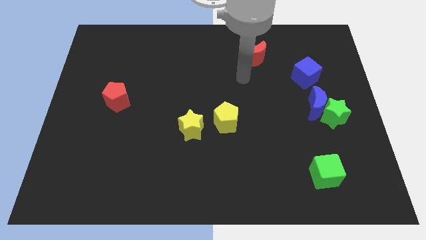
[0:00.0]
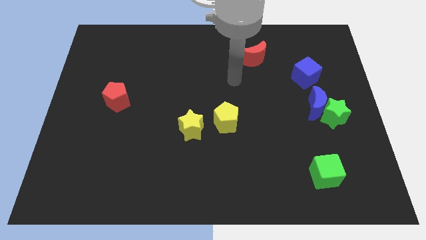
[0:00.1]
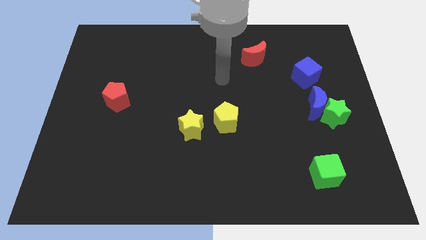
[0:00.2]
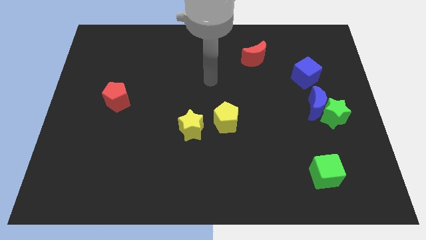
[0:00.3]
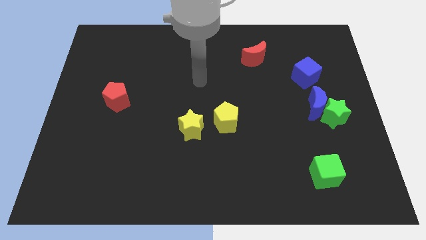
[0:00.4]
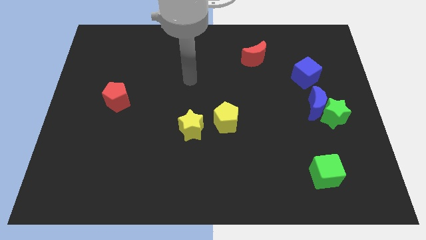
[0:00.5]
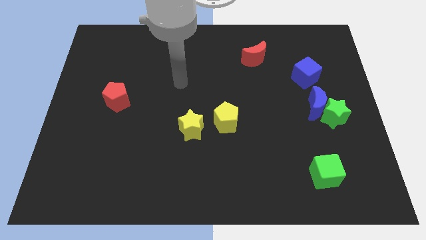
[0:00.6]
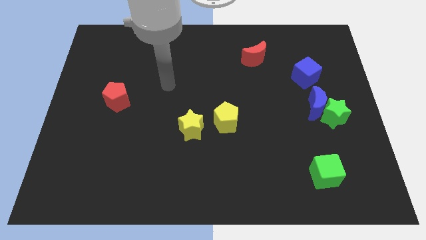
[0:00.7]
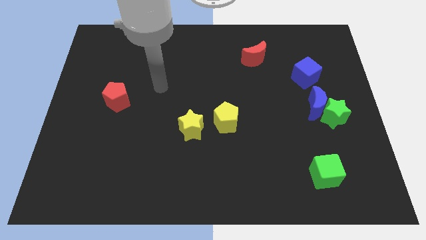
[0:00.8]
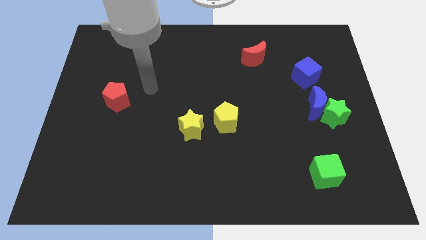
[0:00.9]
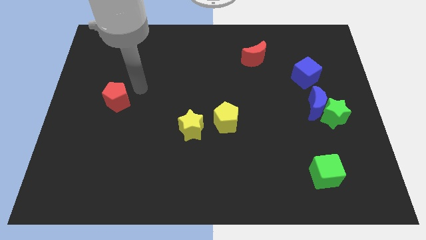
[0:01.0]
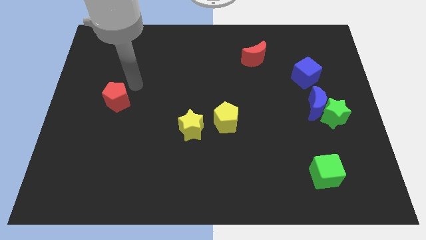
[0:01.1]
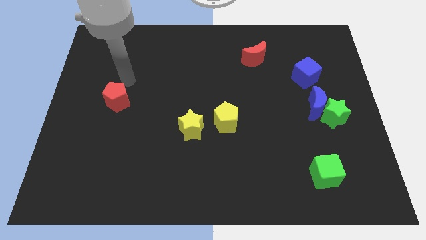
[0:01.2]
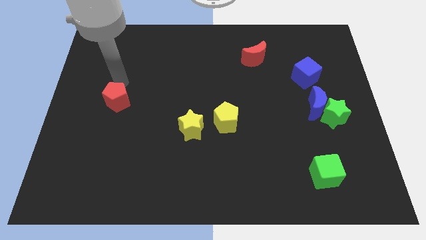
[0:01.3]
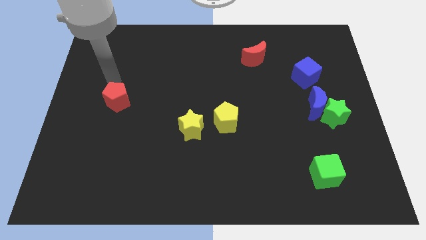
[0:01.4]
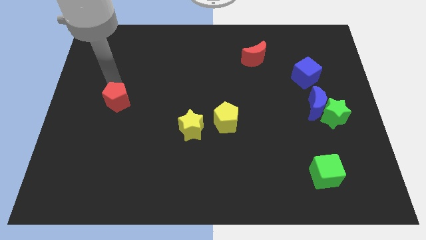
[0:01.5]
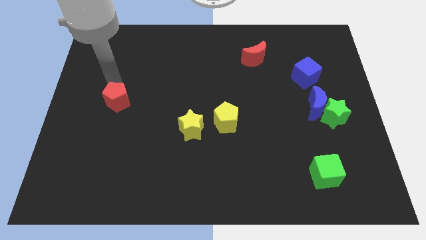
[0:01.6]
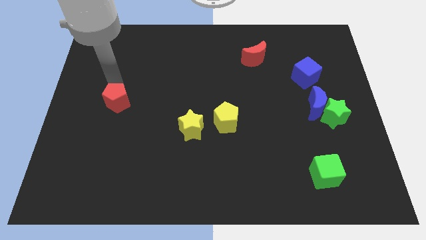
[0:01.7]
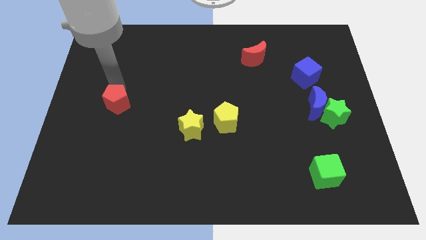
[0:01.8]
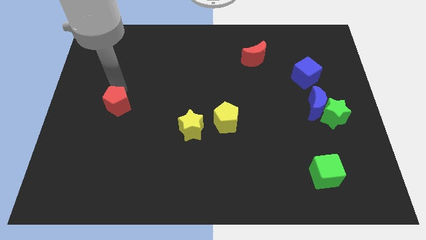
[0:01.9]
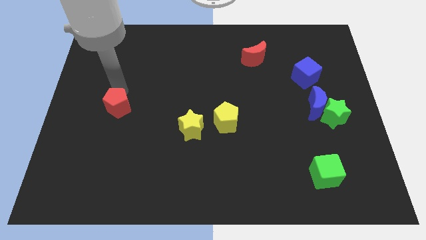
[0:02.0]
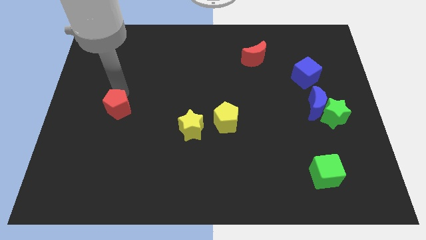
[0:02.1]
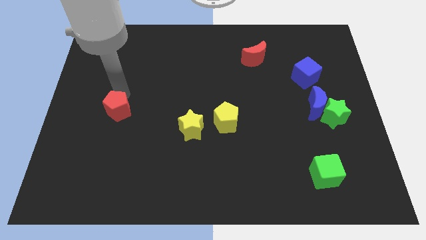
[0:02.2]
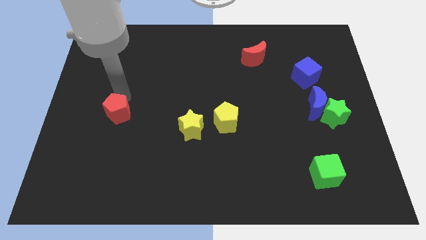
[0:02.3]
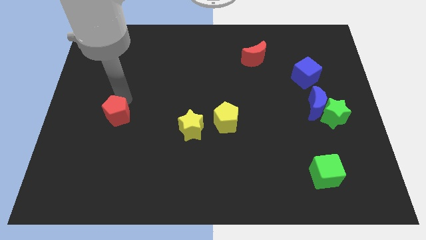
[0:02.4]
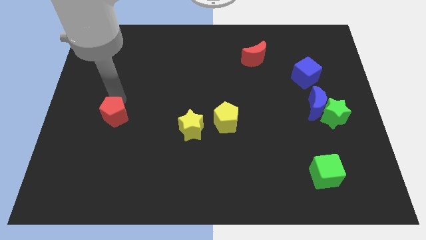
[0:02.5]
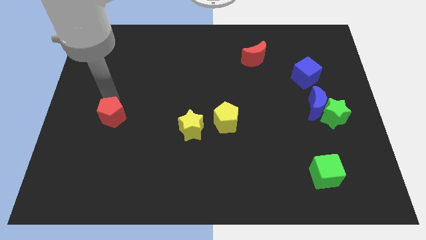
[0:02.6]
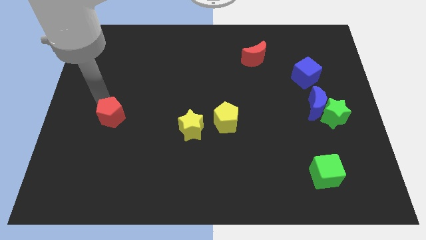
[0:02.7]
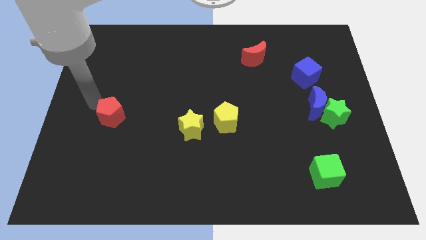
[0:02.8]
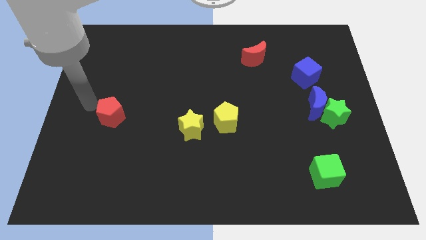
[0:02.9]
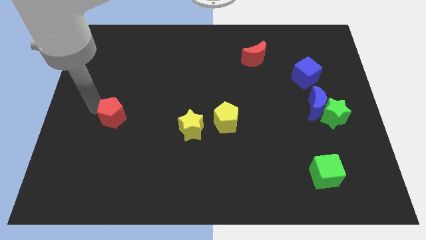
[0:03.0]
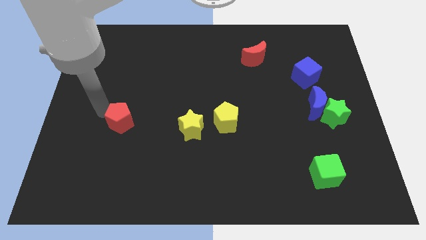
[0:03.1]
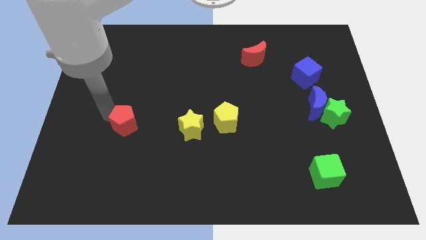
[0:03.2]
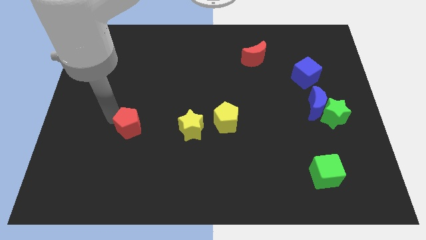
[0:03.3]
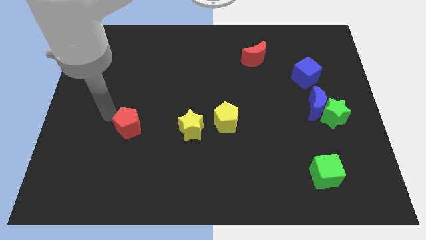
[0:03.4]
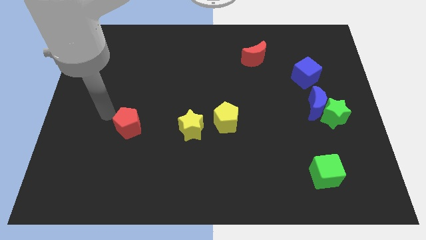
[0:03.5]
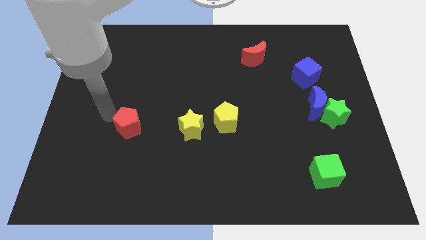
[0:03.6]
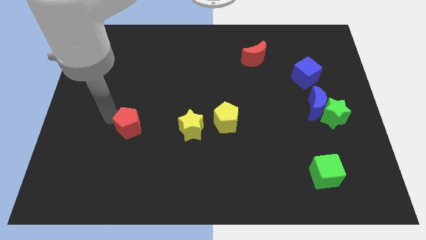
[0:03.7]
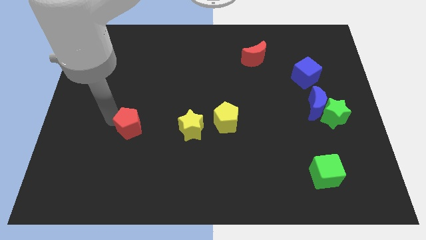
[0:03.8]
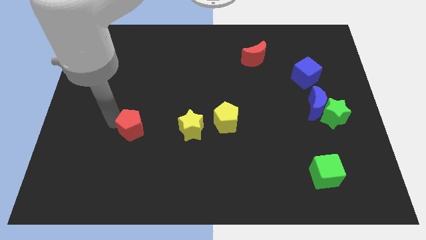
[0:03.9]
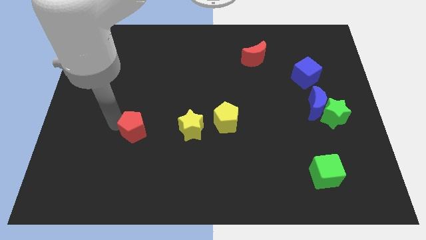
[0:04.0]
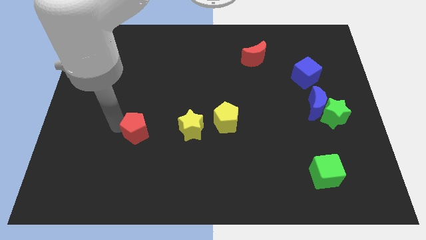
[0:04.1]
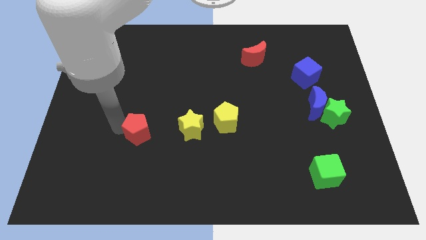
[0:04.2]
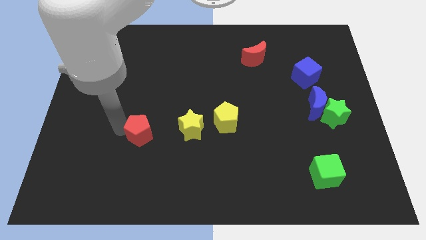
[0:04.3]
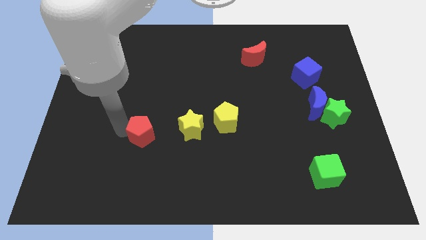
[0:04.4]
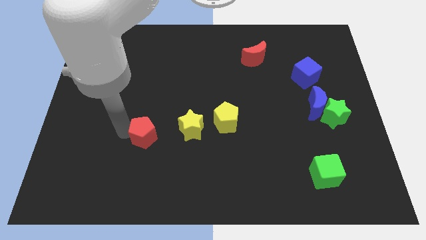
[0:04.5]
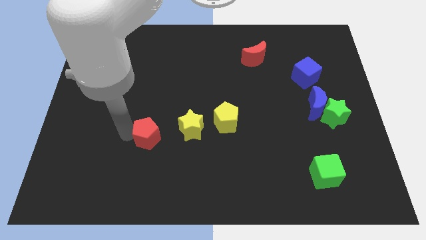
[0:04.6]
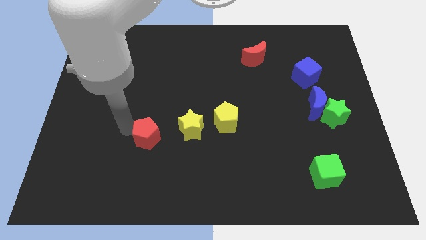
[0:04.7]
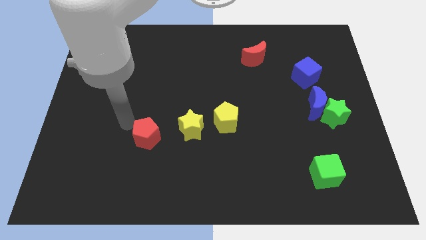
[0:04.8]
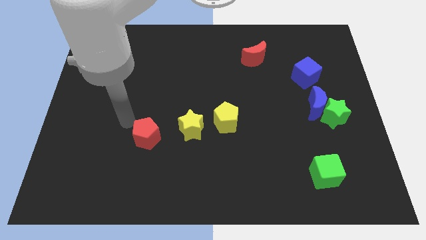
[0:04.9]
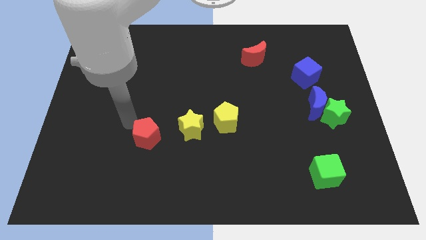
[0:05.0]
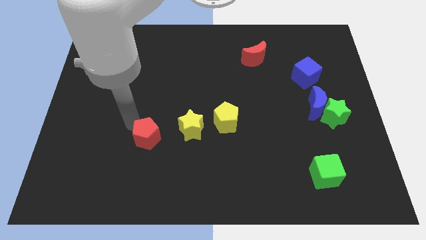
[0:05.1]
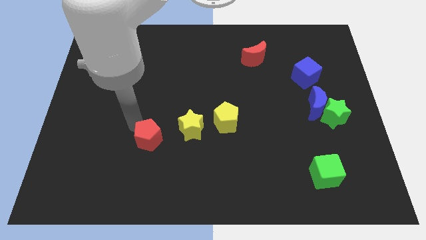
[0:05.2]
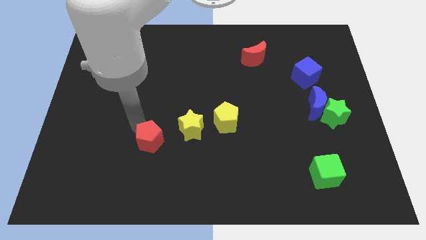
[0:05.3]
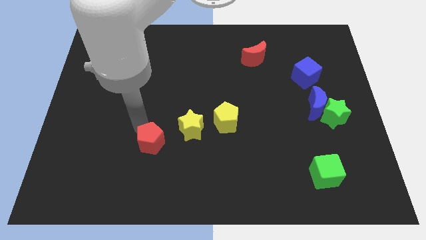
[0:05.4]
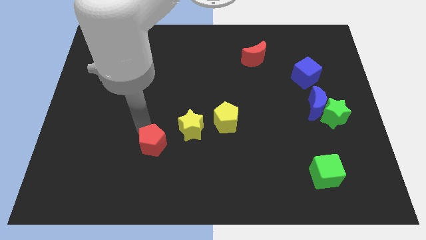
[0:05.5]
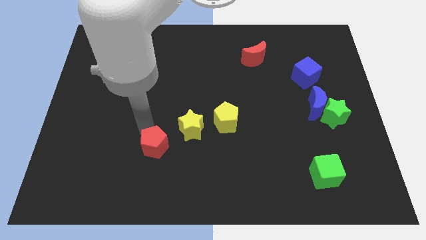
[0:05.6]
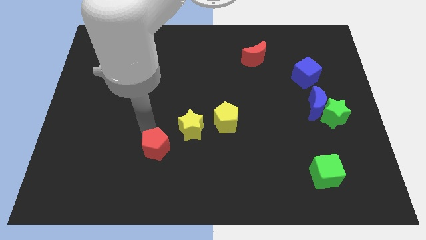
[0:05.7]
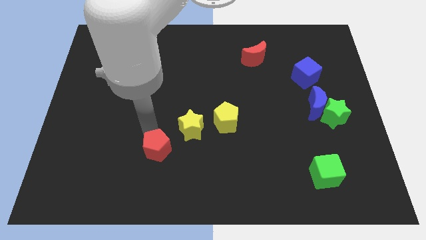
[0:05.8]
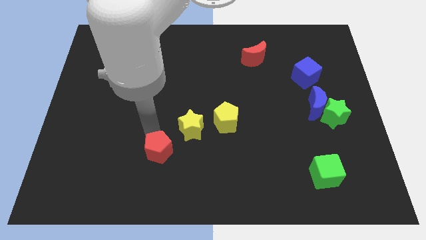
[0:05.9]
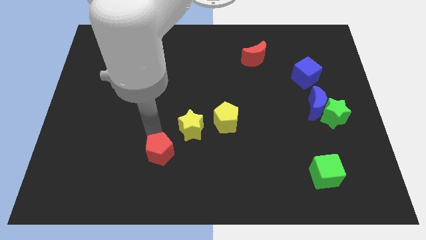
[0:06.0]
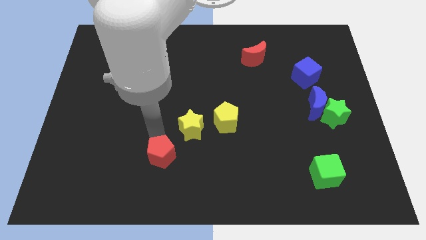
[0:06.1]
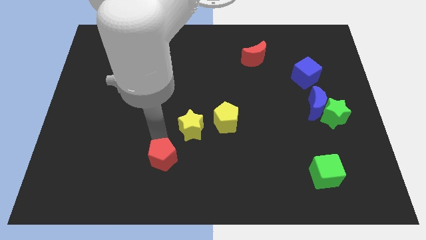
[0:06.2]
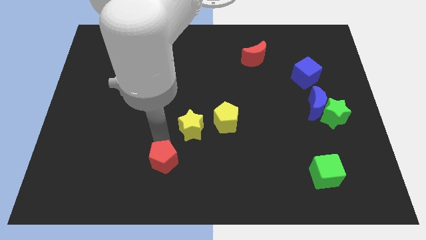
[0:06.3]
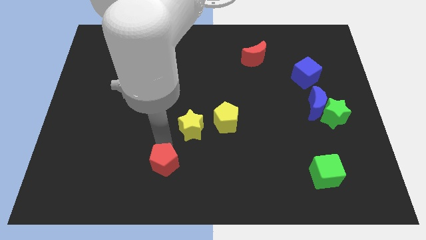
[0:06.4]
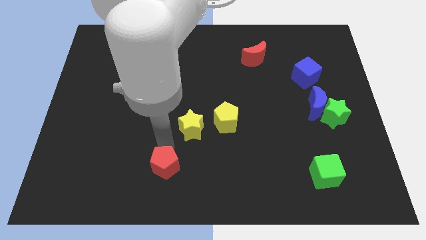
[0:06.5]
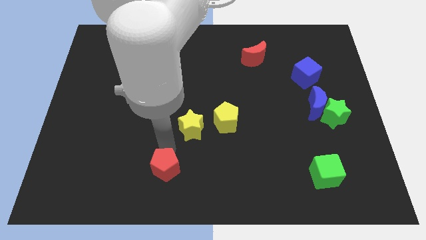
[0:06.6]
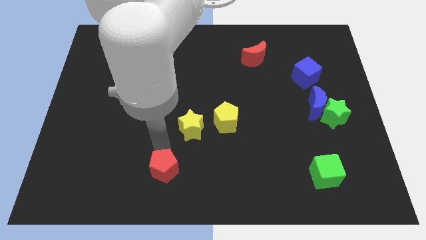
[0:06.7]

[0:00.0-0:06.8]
push the red pentagon to the bottom side
